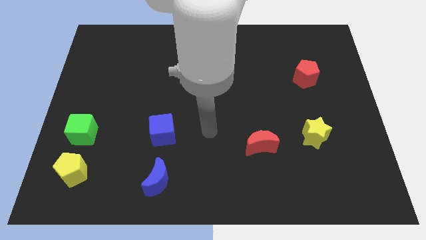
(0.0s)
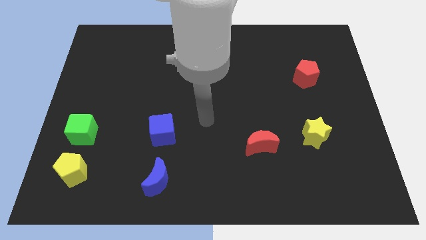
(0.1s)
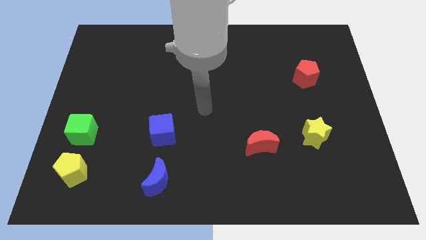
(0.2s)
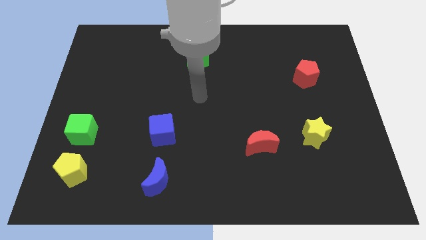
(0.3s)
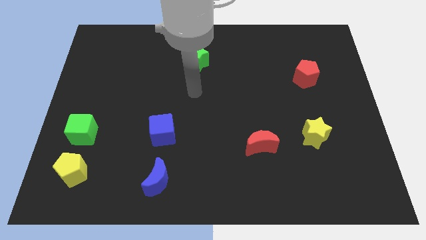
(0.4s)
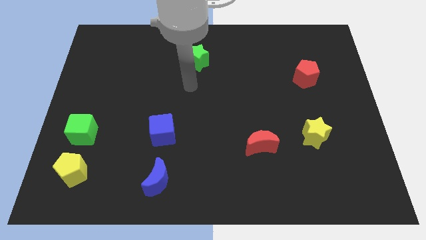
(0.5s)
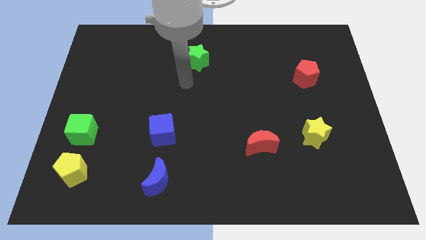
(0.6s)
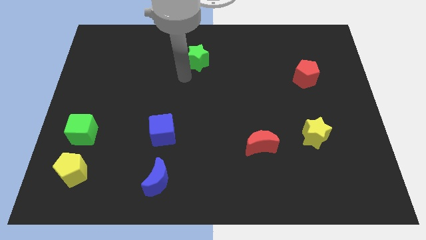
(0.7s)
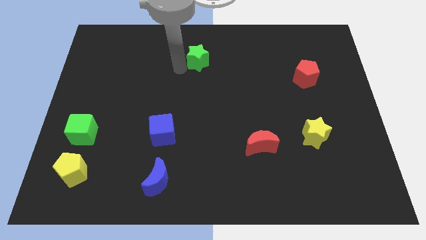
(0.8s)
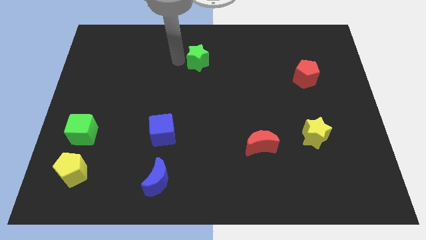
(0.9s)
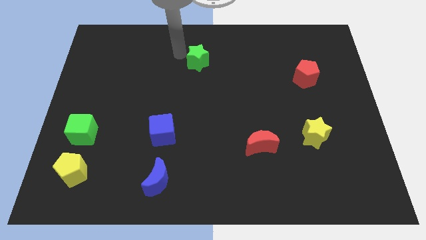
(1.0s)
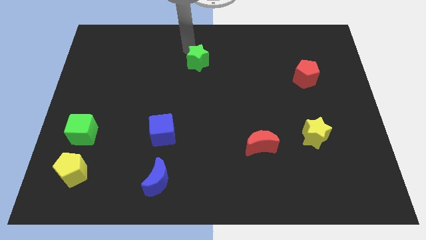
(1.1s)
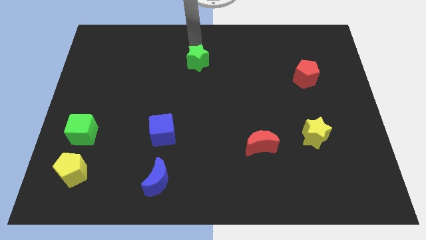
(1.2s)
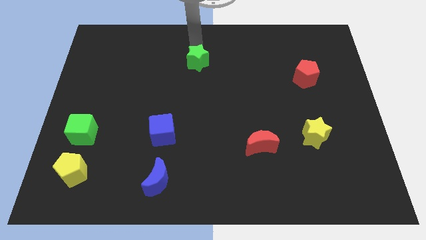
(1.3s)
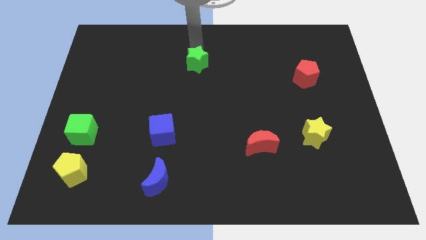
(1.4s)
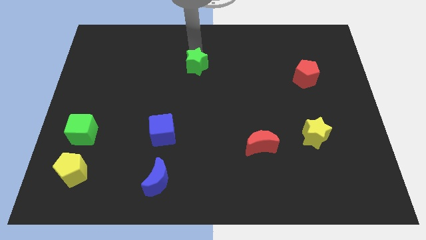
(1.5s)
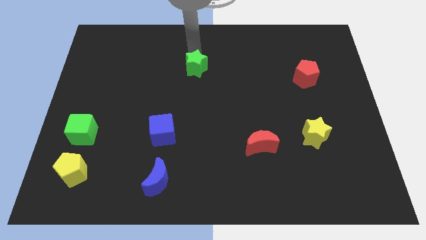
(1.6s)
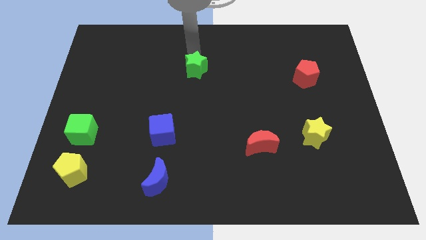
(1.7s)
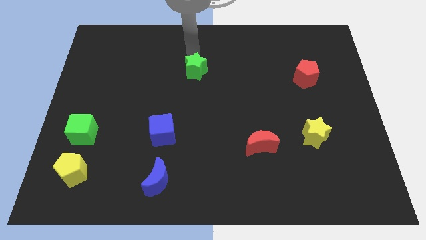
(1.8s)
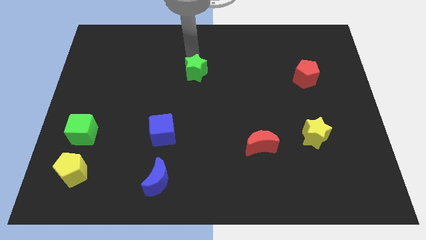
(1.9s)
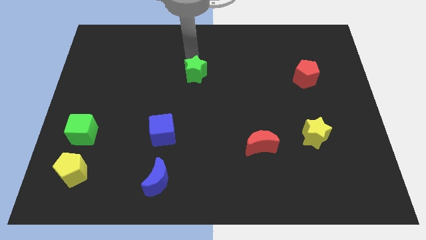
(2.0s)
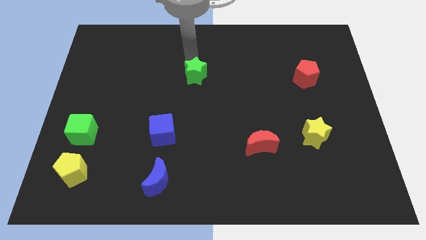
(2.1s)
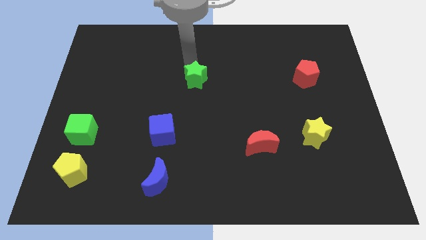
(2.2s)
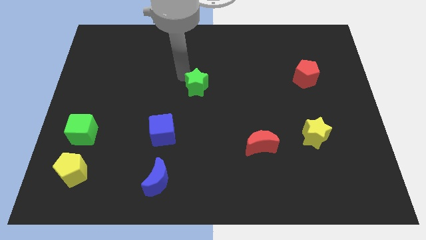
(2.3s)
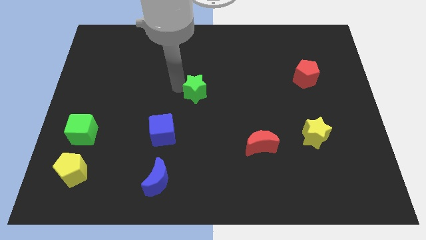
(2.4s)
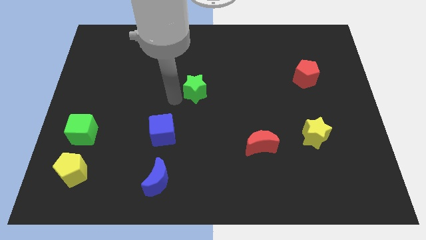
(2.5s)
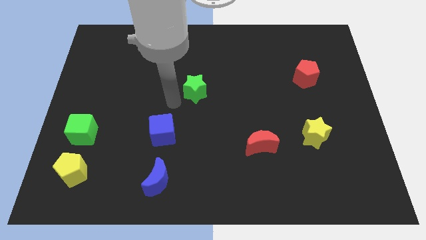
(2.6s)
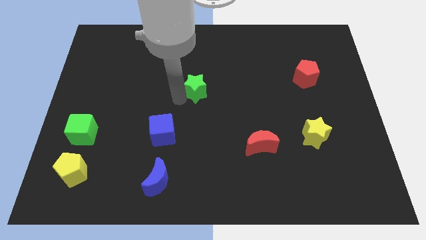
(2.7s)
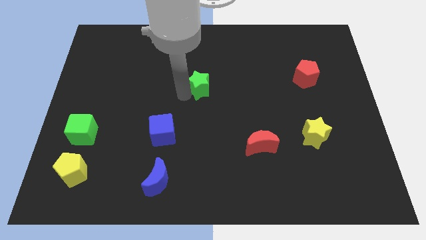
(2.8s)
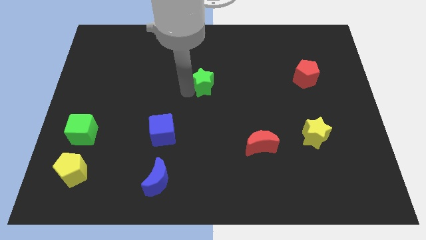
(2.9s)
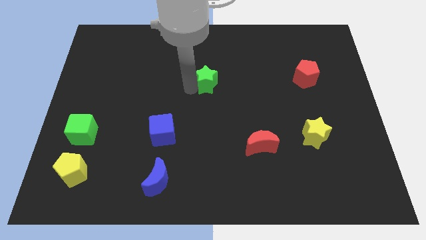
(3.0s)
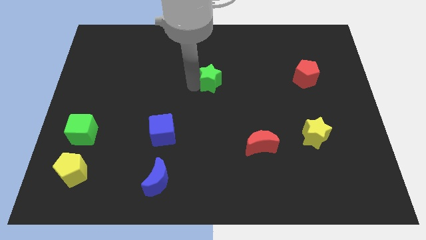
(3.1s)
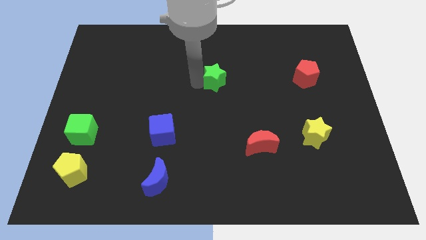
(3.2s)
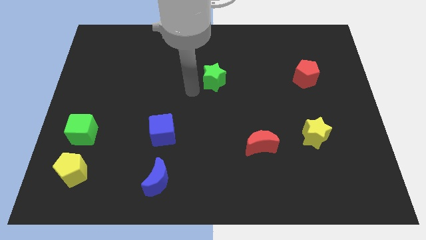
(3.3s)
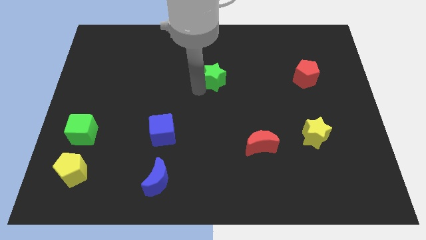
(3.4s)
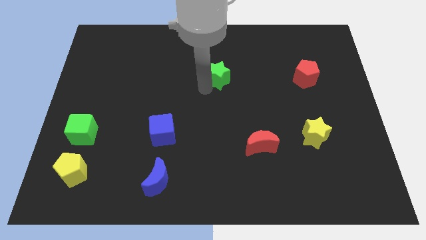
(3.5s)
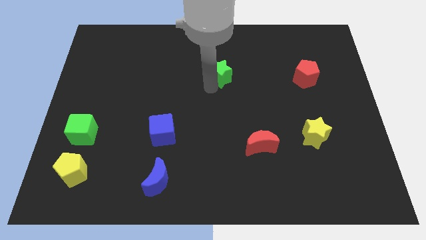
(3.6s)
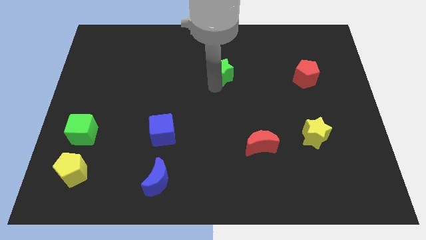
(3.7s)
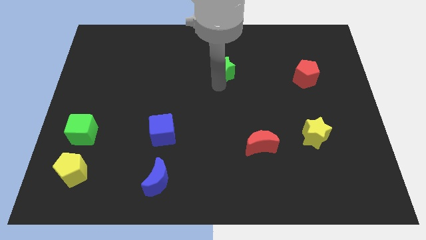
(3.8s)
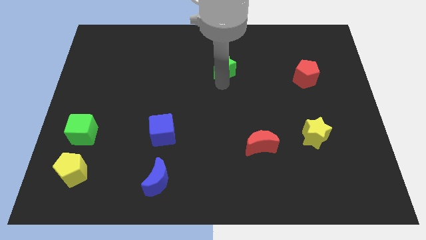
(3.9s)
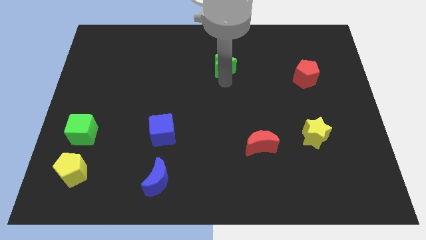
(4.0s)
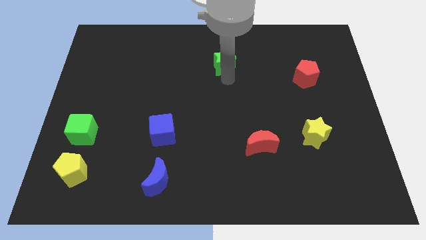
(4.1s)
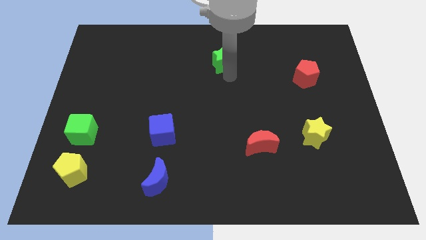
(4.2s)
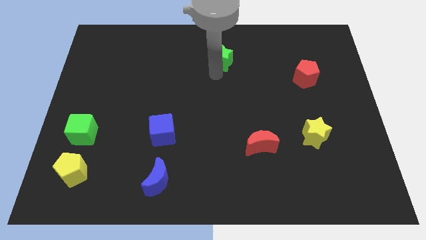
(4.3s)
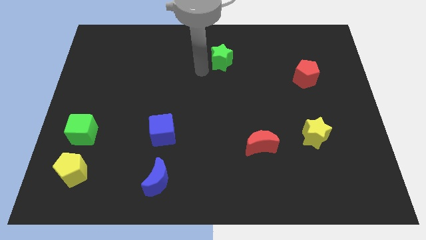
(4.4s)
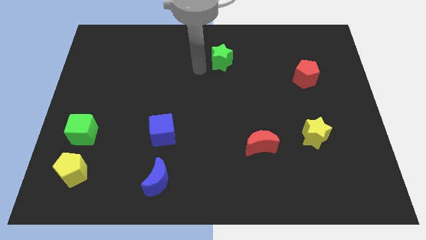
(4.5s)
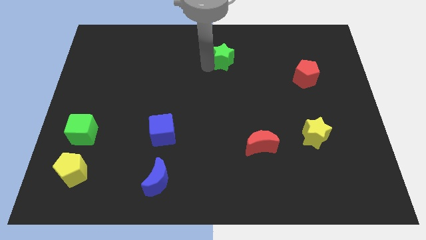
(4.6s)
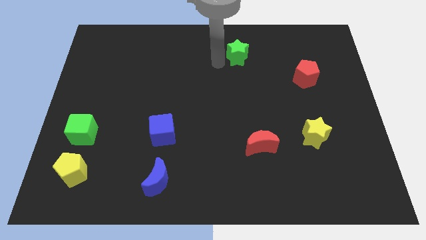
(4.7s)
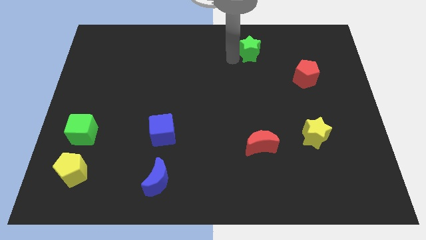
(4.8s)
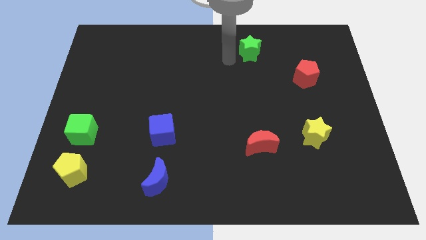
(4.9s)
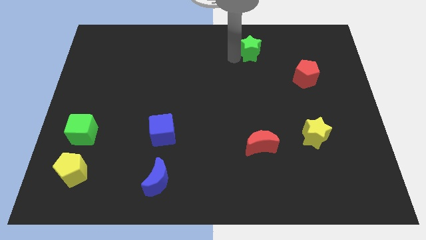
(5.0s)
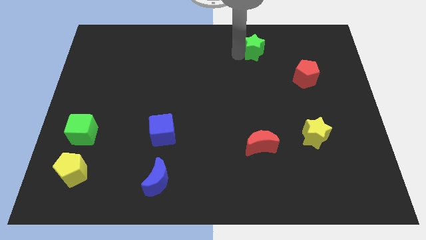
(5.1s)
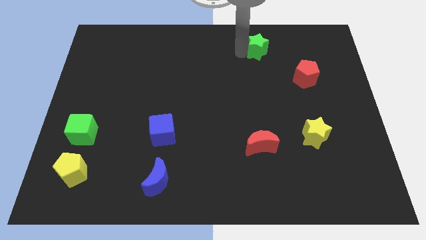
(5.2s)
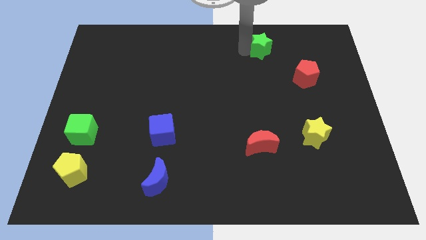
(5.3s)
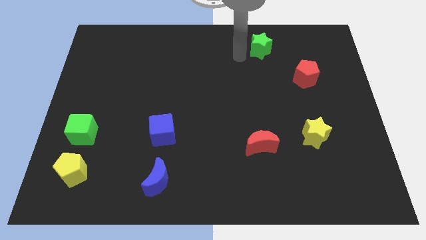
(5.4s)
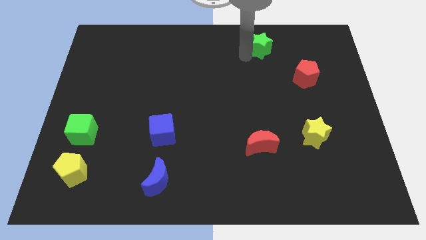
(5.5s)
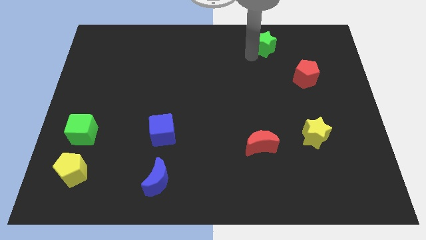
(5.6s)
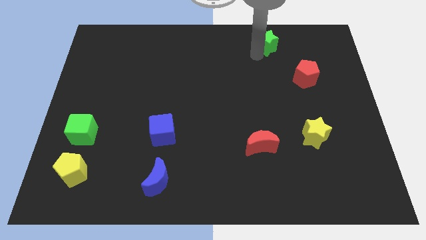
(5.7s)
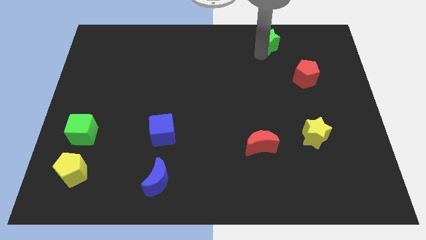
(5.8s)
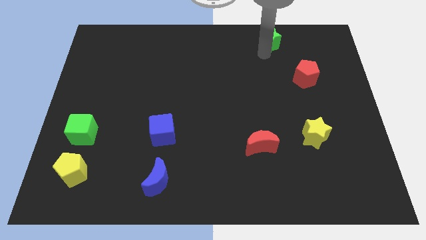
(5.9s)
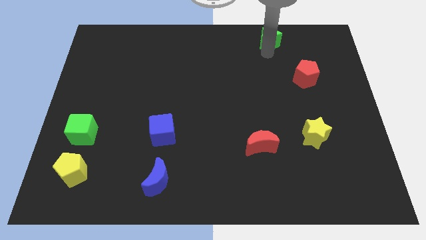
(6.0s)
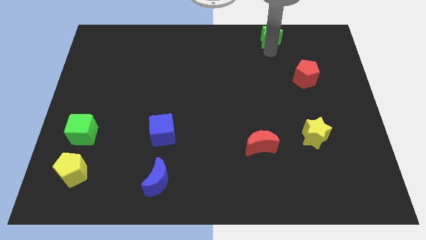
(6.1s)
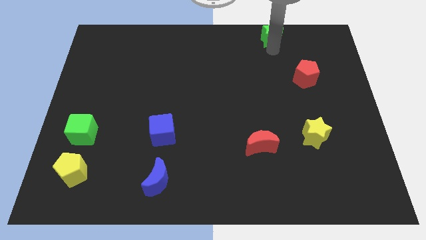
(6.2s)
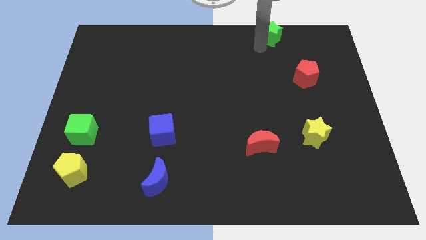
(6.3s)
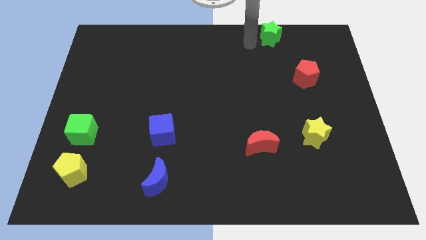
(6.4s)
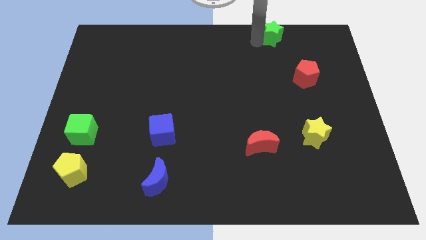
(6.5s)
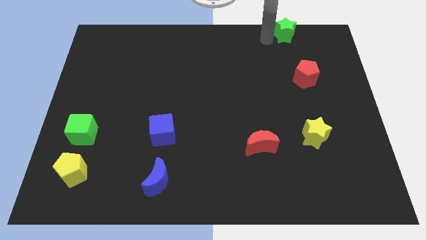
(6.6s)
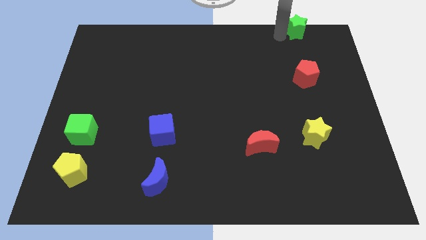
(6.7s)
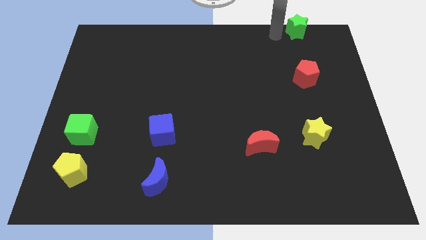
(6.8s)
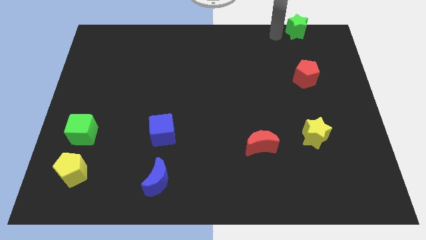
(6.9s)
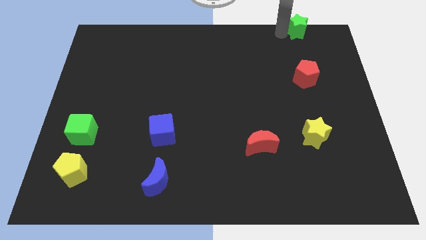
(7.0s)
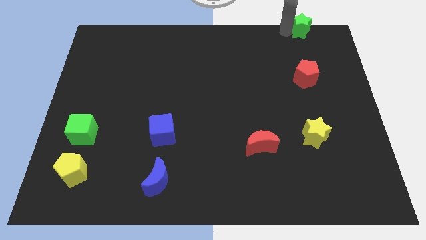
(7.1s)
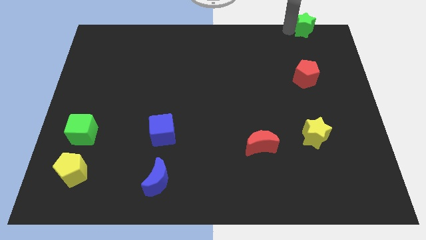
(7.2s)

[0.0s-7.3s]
move the green star to the upper right corner
